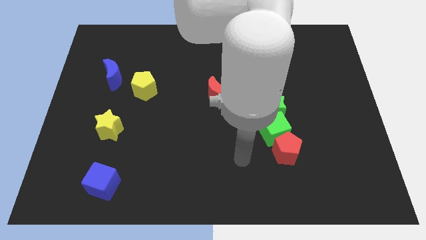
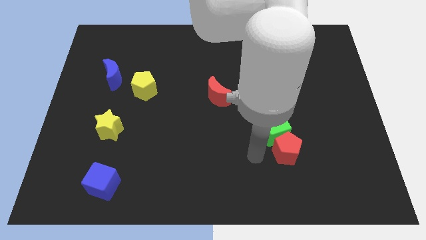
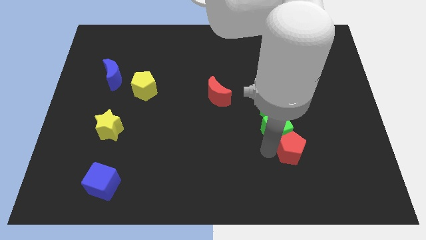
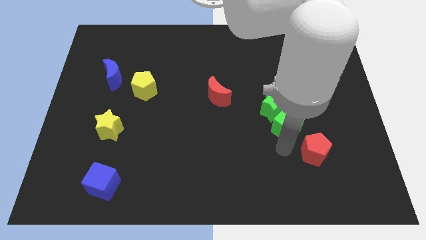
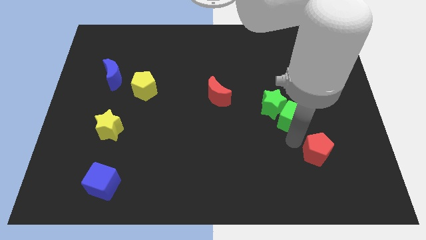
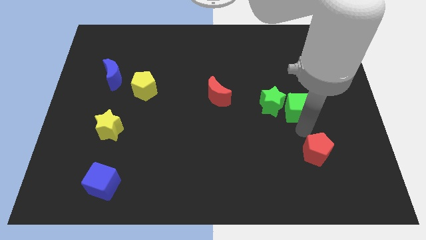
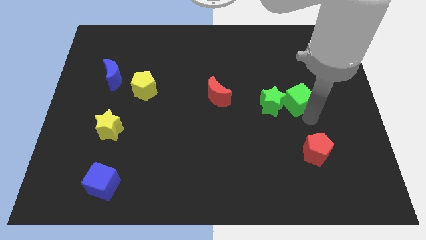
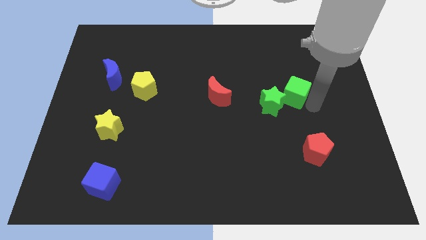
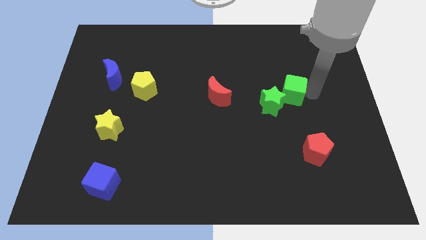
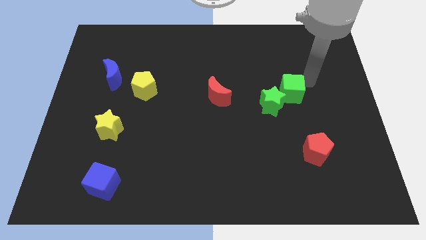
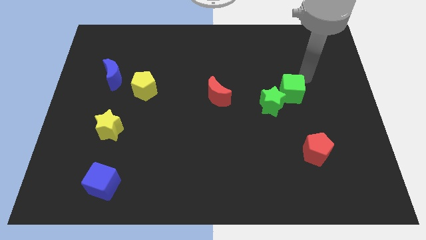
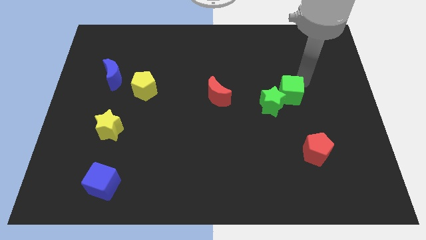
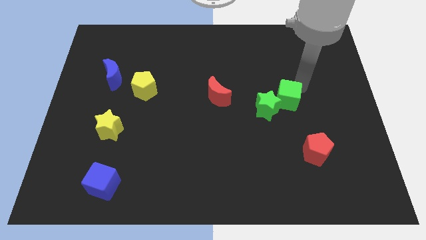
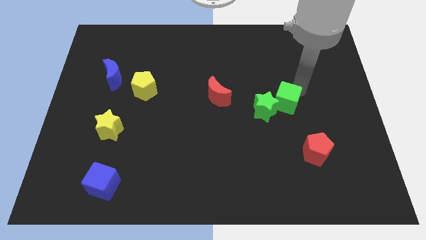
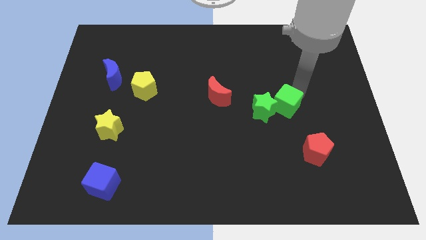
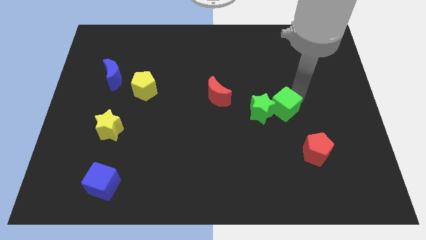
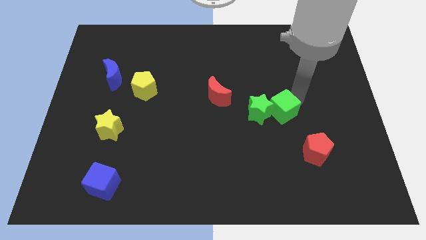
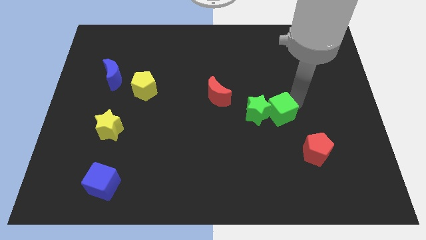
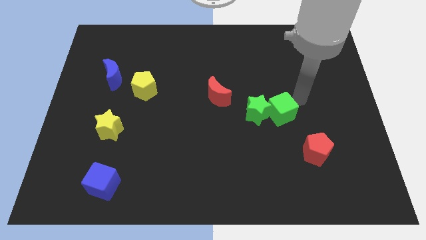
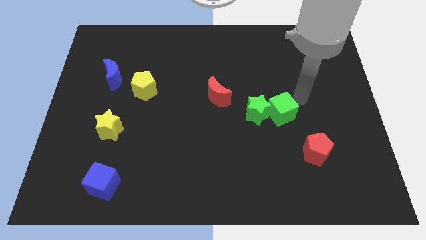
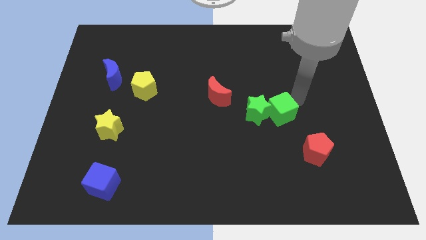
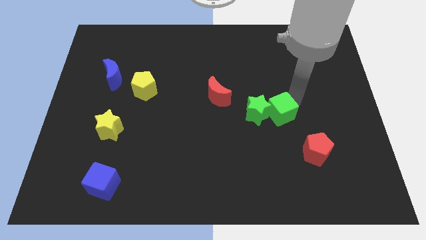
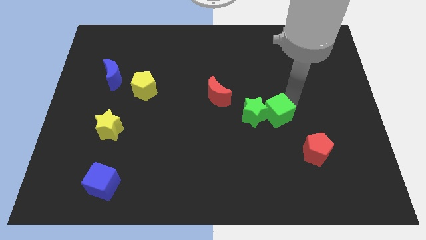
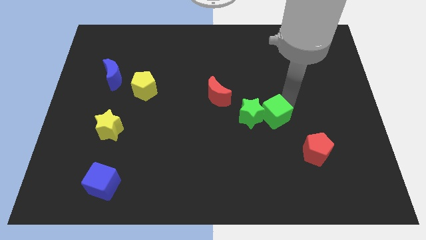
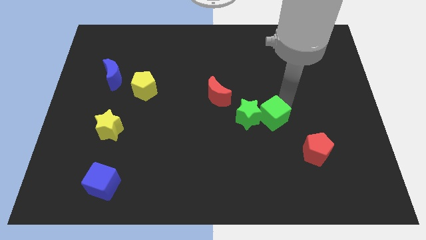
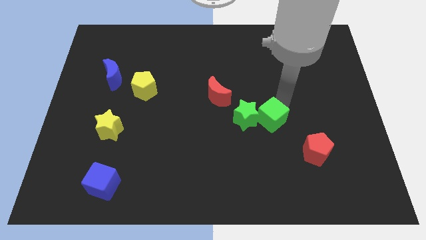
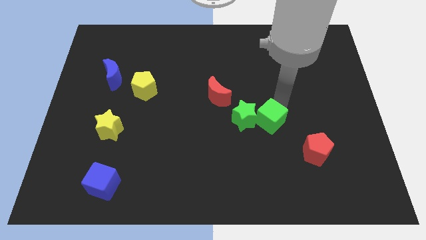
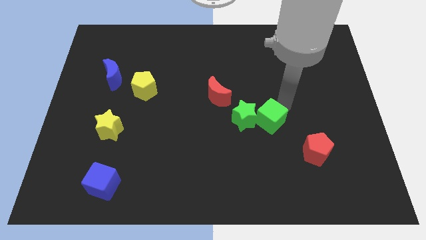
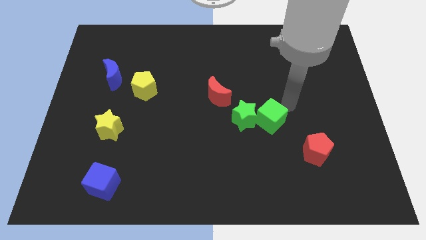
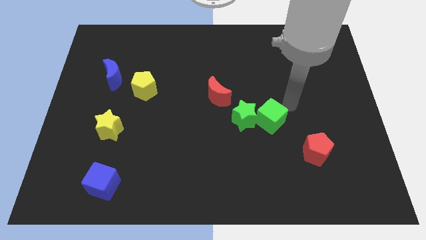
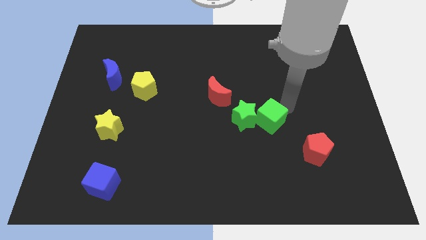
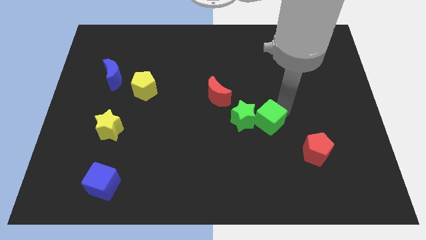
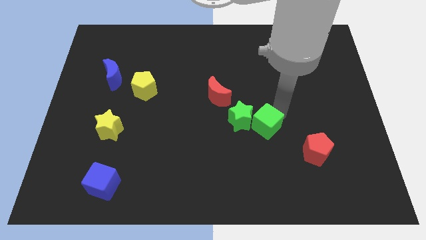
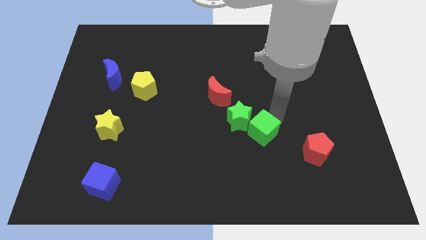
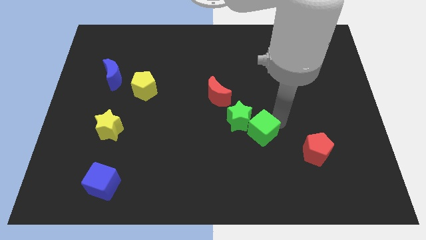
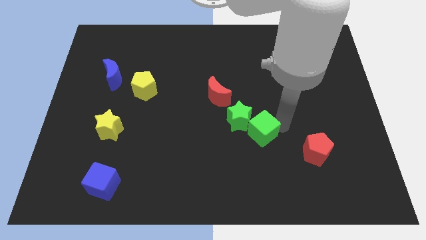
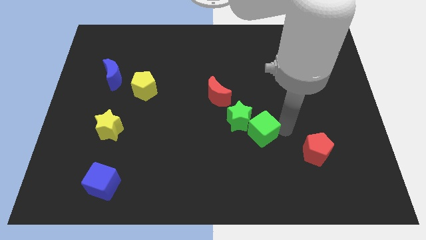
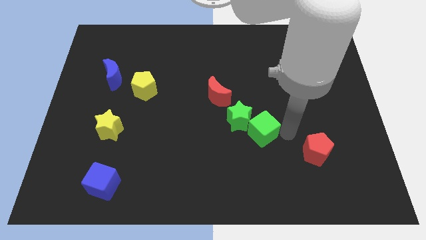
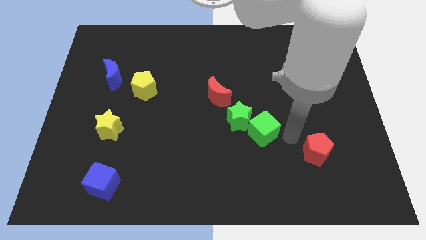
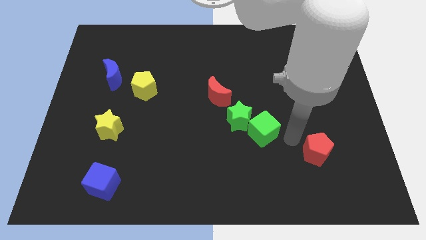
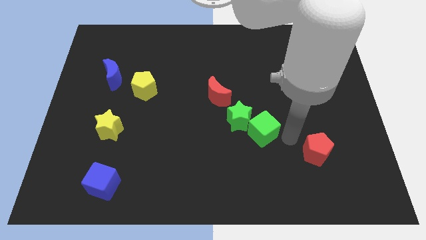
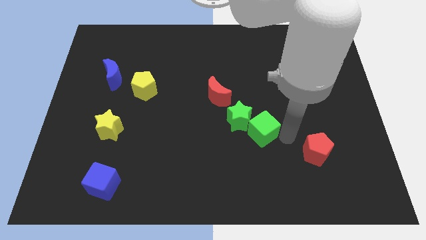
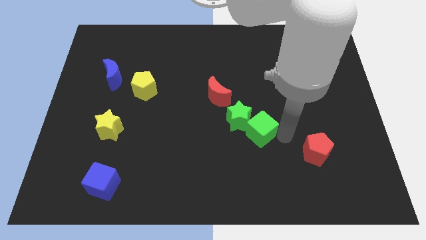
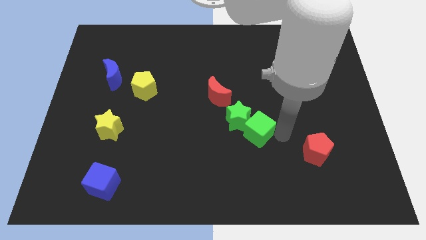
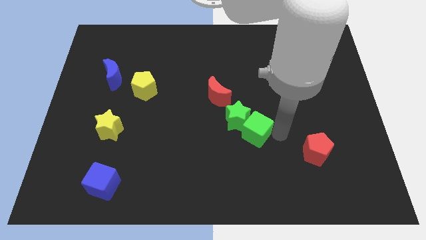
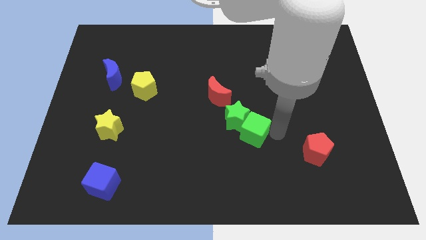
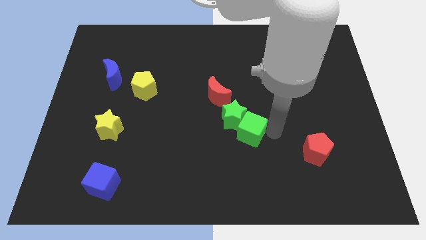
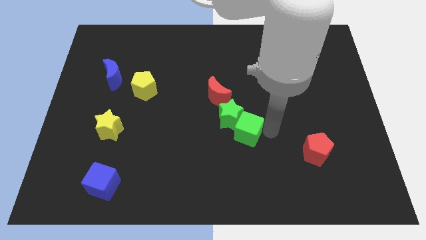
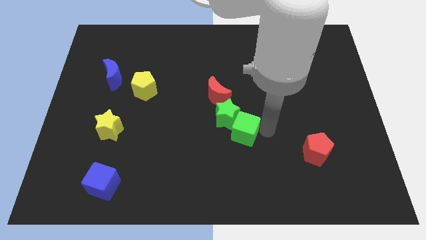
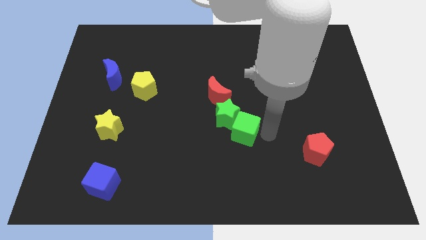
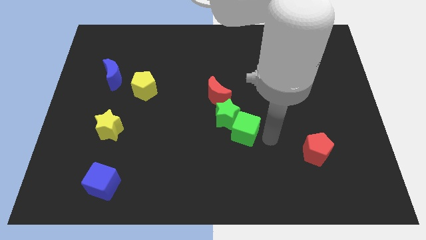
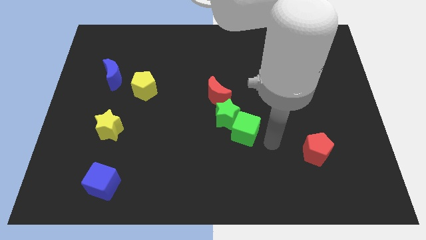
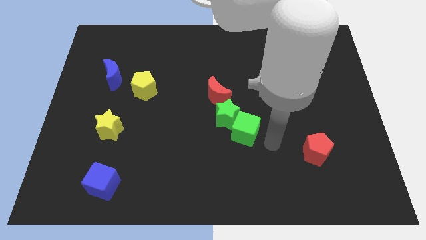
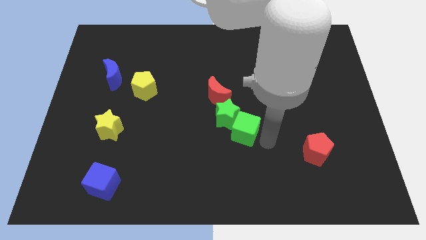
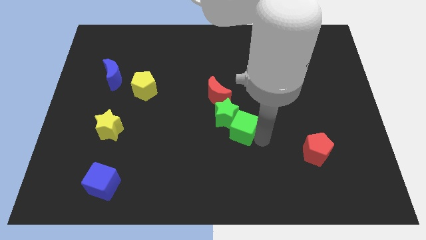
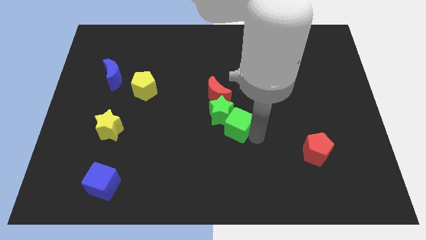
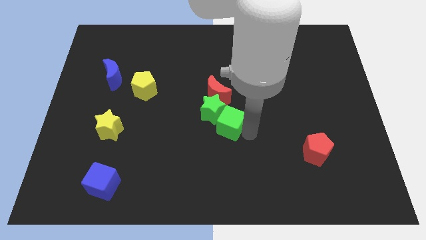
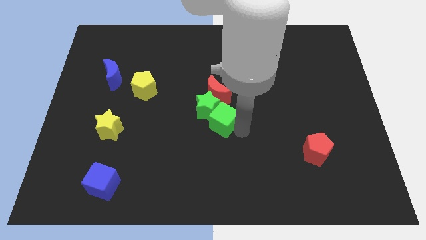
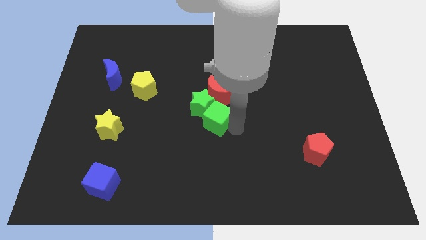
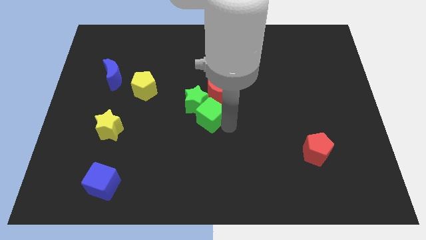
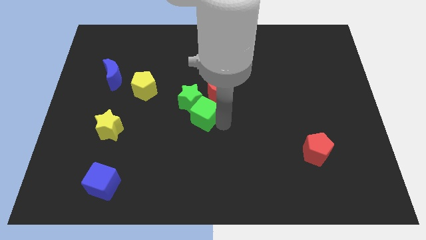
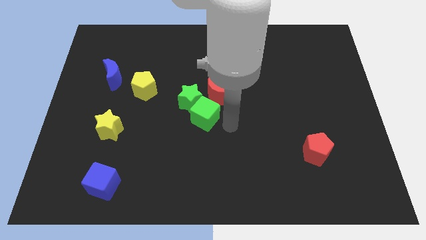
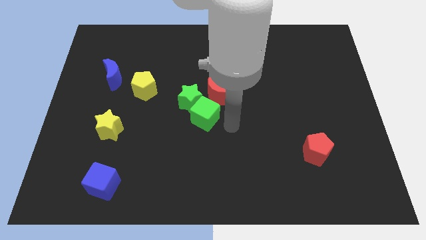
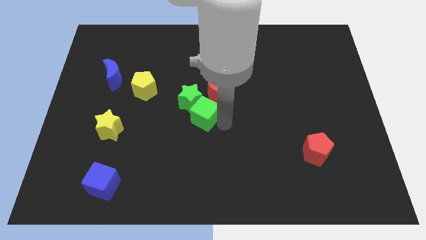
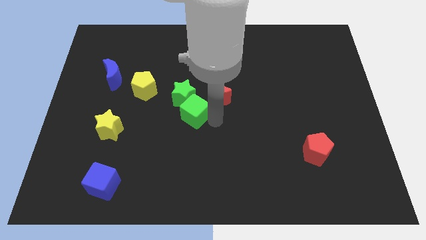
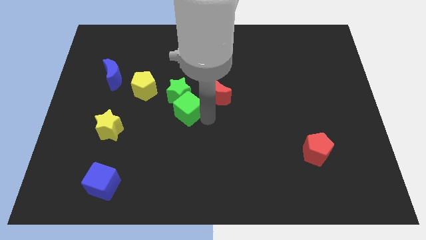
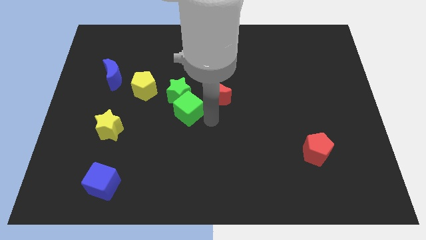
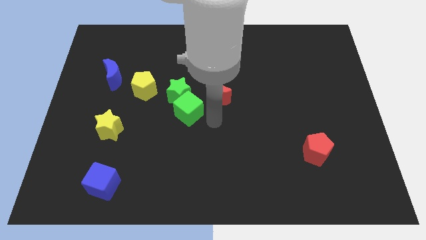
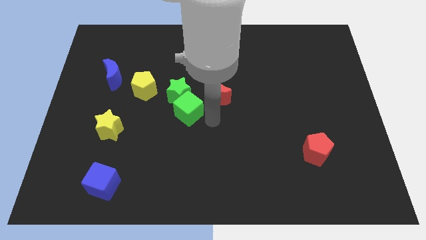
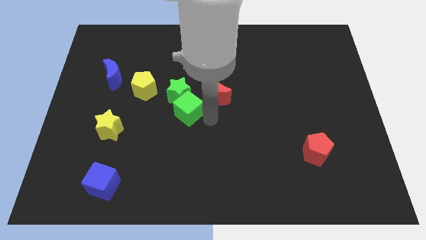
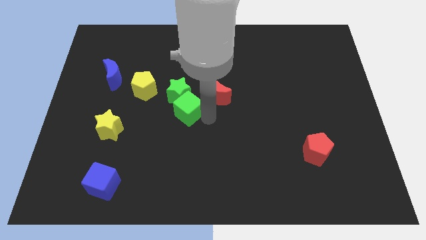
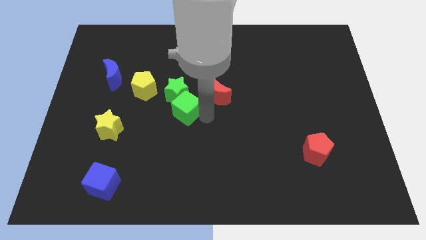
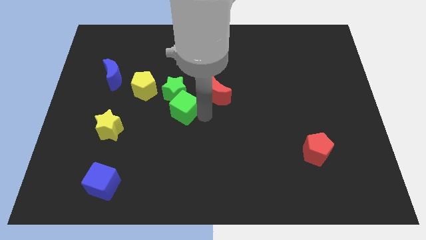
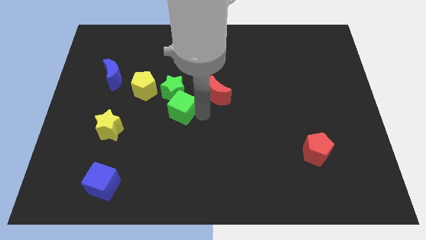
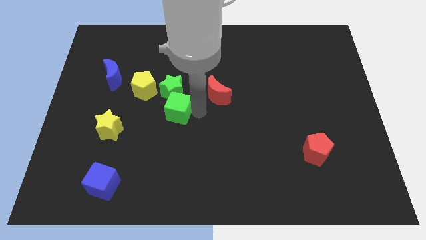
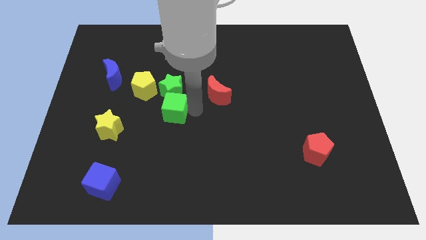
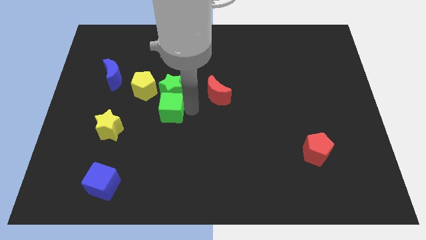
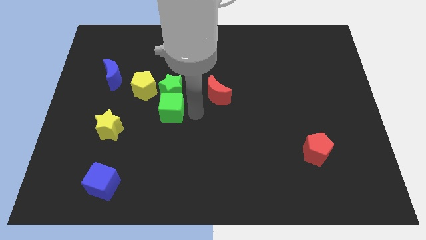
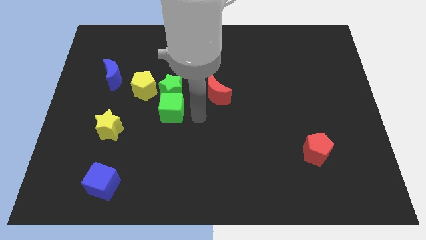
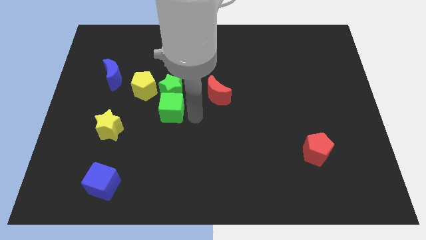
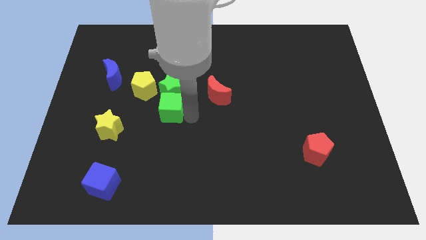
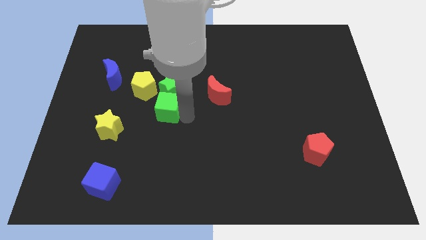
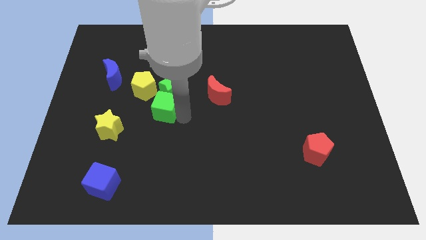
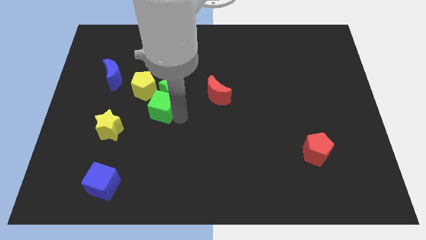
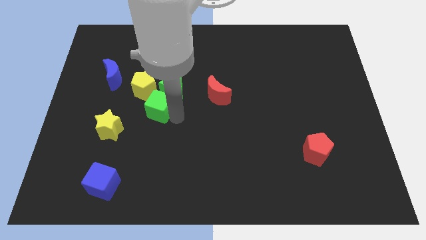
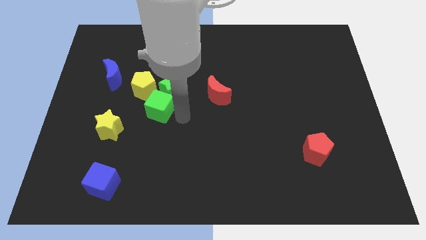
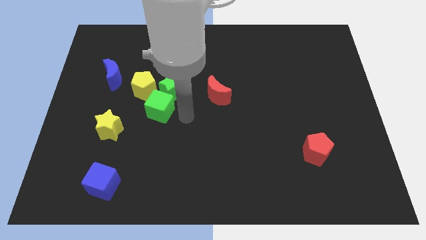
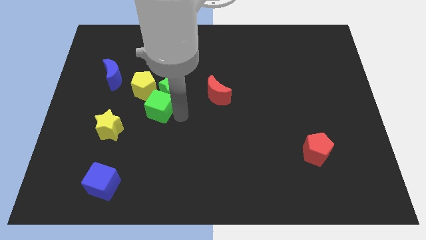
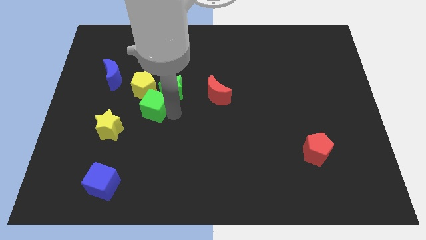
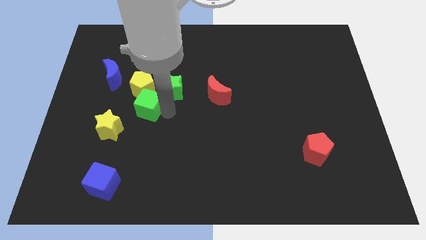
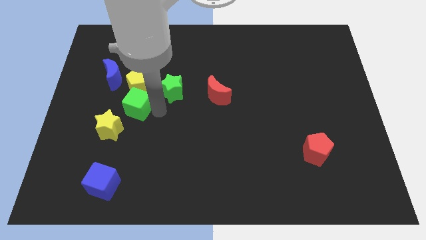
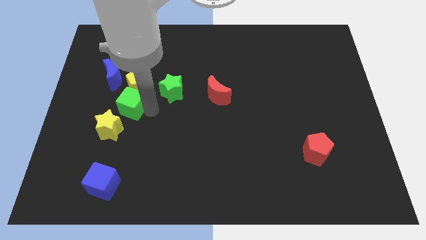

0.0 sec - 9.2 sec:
push the green cube to the top of the yellow star
